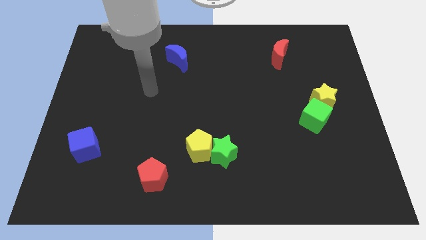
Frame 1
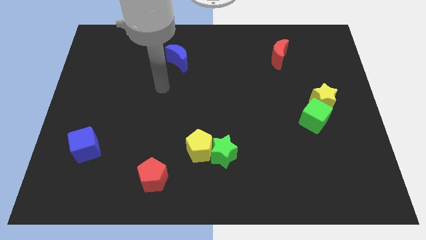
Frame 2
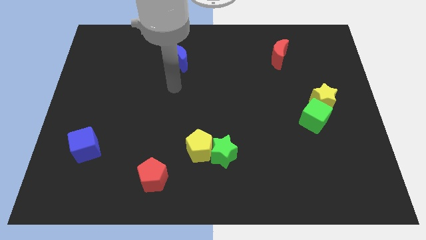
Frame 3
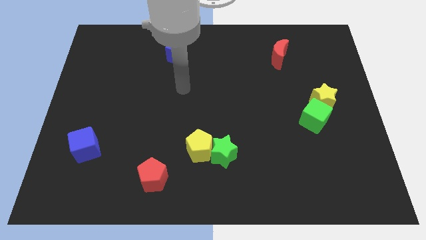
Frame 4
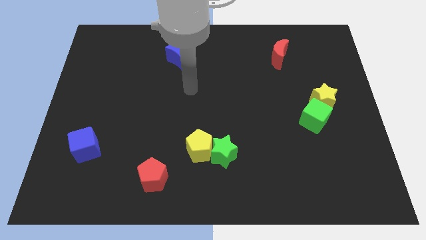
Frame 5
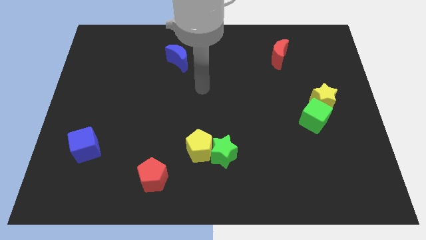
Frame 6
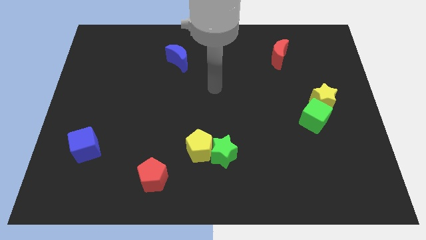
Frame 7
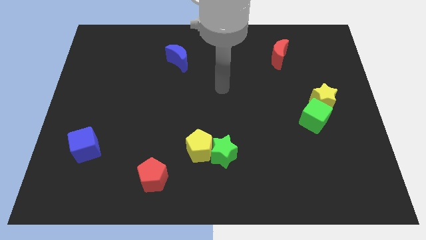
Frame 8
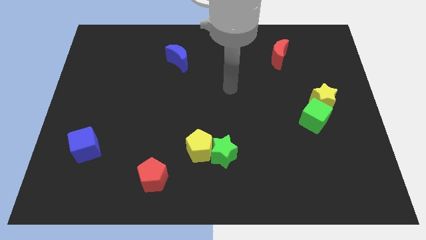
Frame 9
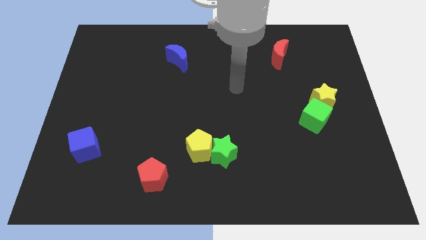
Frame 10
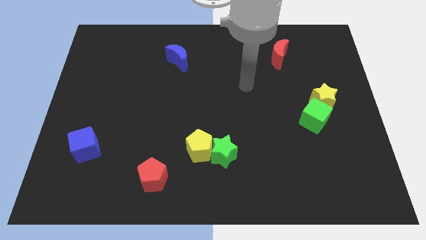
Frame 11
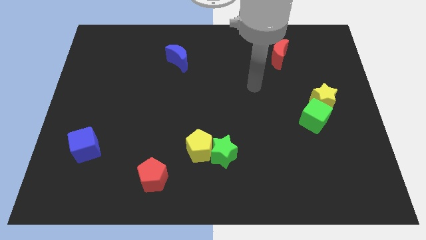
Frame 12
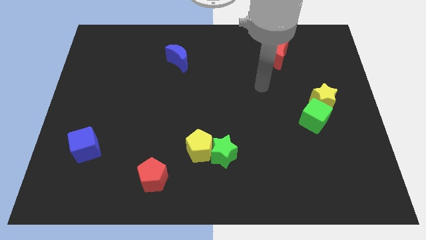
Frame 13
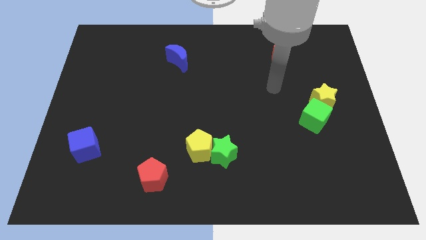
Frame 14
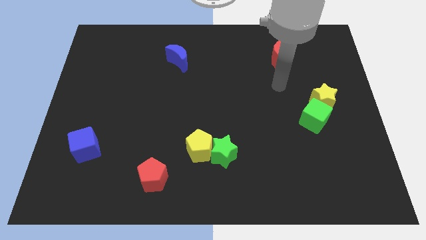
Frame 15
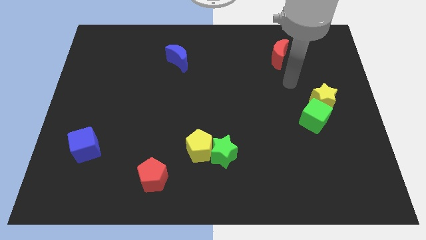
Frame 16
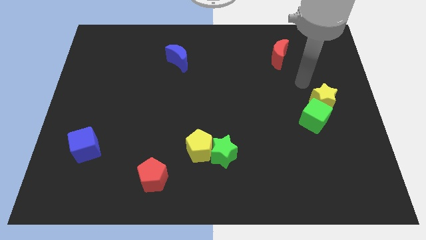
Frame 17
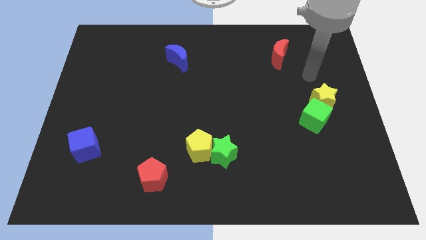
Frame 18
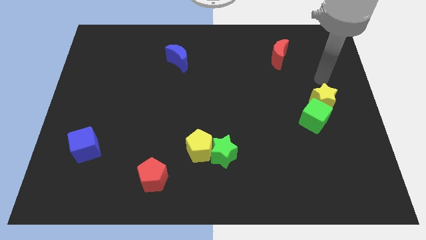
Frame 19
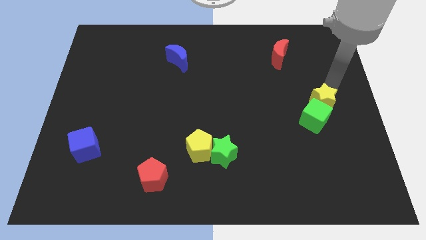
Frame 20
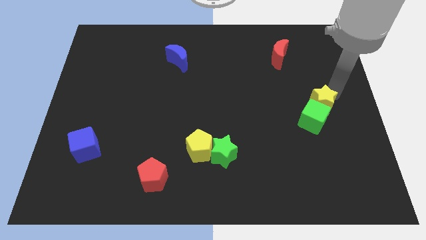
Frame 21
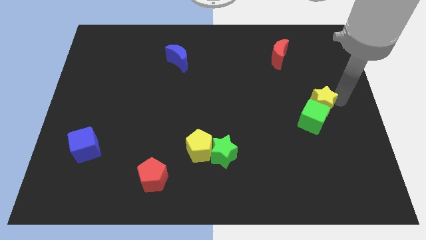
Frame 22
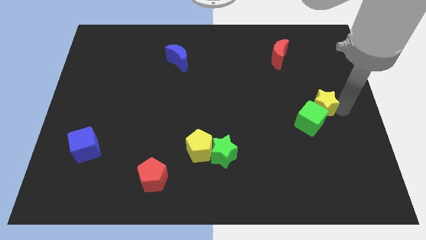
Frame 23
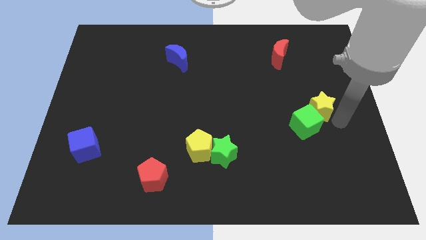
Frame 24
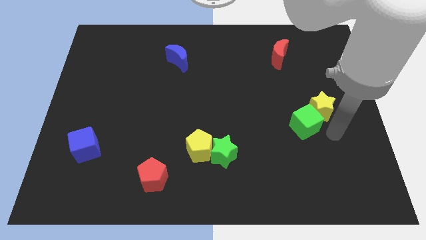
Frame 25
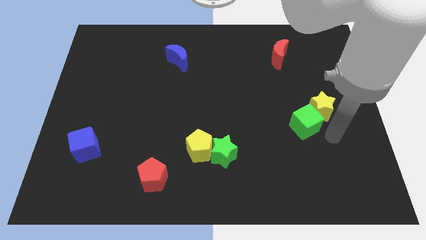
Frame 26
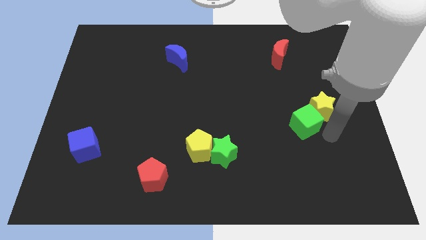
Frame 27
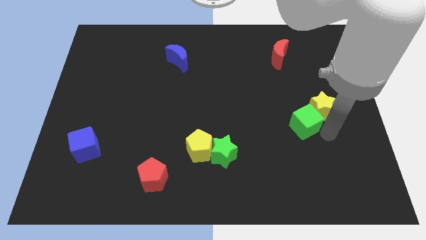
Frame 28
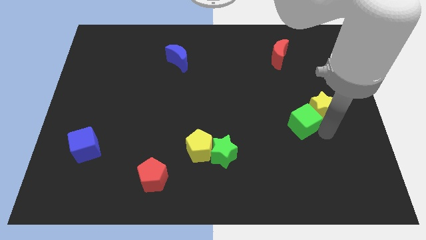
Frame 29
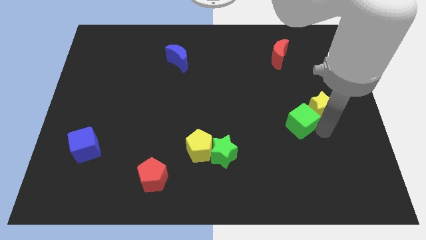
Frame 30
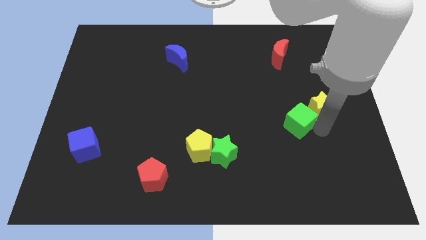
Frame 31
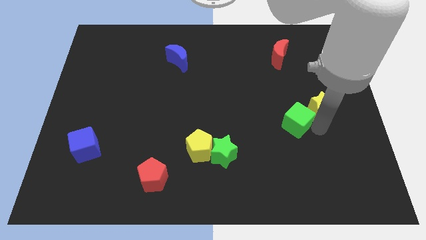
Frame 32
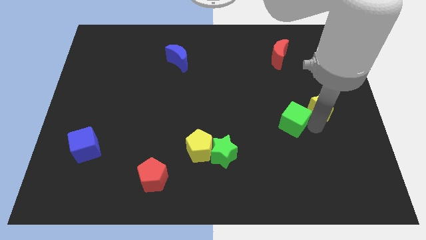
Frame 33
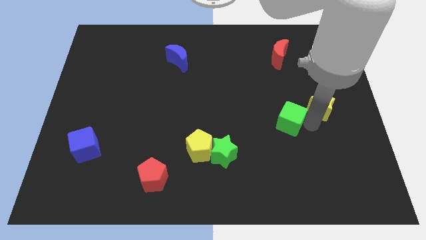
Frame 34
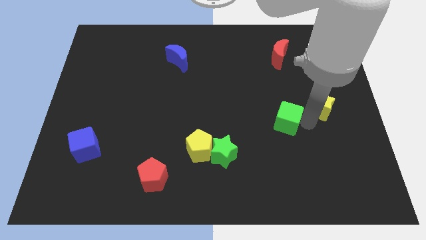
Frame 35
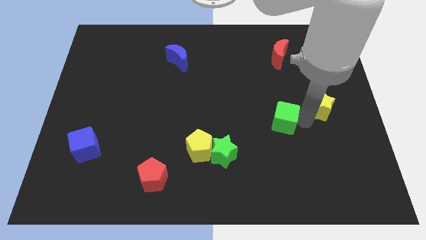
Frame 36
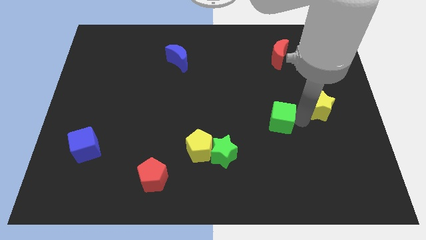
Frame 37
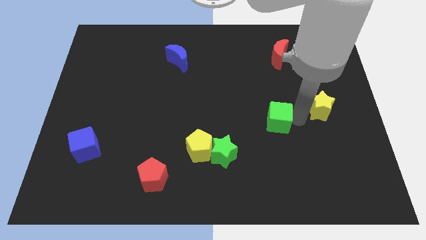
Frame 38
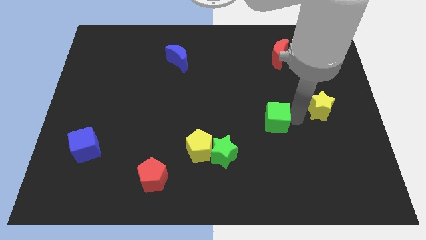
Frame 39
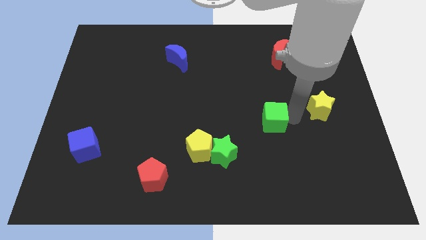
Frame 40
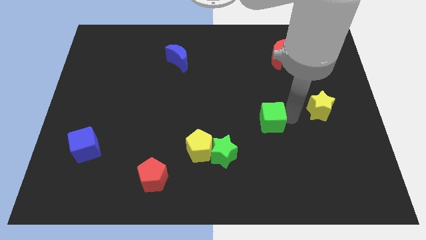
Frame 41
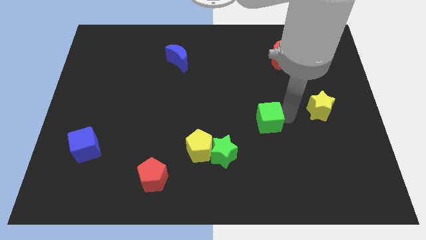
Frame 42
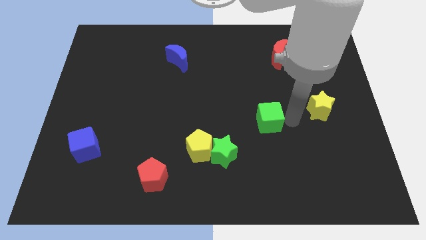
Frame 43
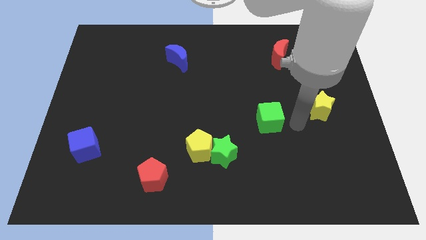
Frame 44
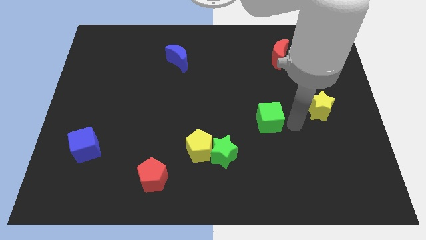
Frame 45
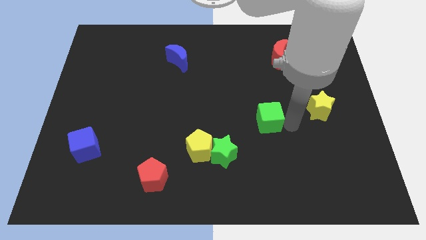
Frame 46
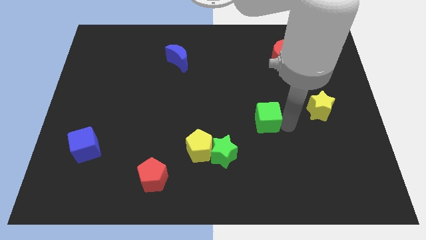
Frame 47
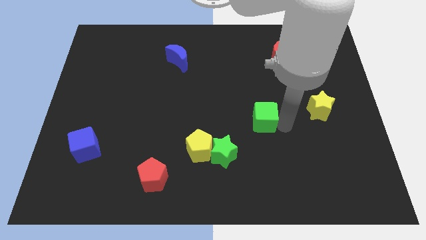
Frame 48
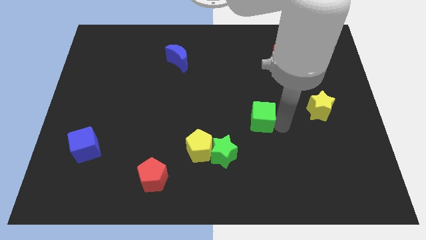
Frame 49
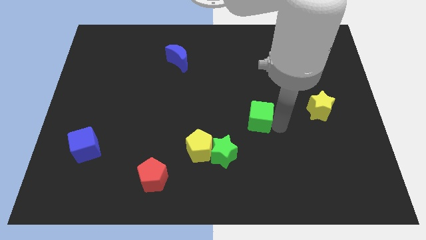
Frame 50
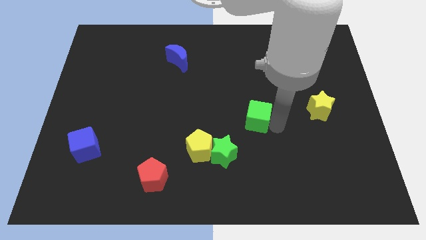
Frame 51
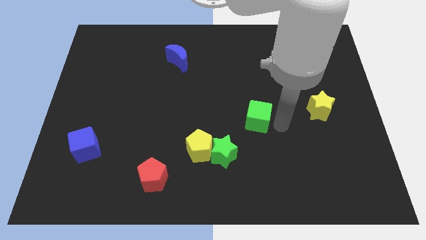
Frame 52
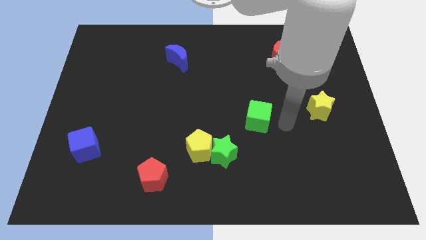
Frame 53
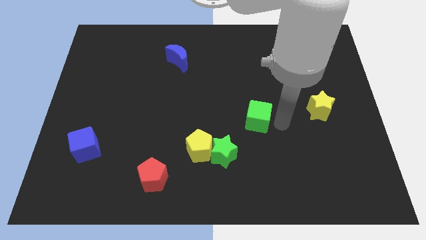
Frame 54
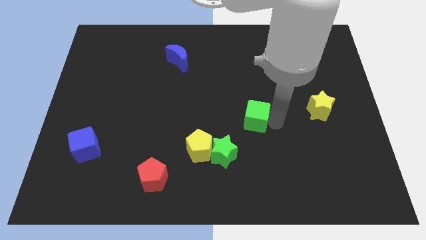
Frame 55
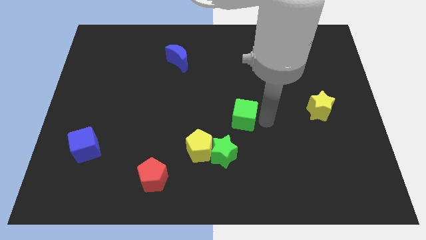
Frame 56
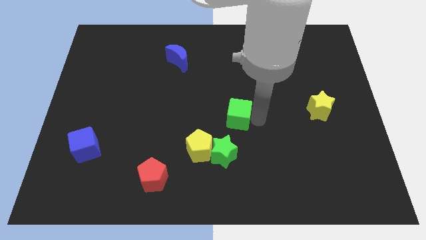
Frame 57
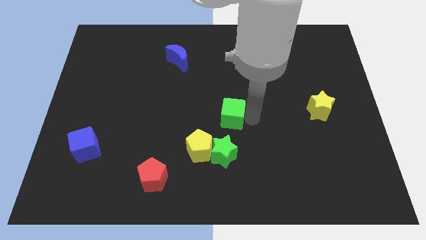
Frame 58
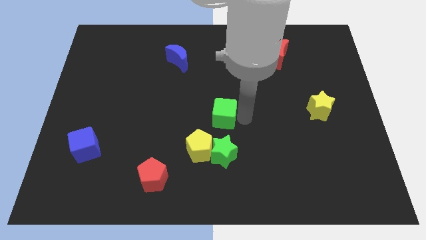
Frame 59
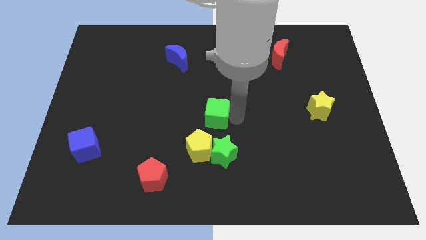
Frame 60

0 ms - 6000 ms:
move the green cube to the top side of the yellow pentagon
